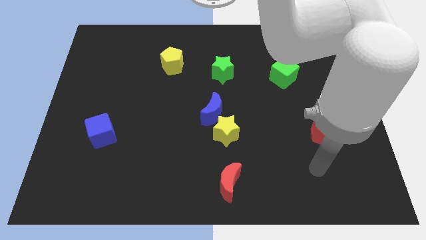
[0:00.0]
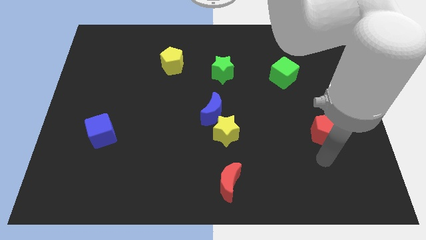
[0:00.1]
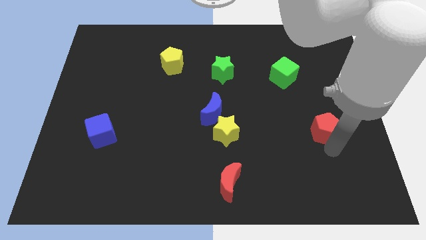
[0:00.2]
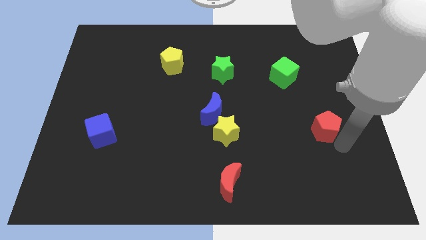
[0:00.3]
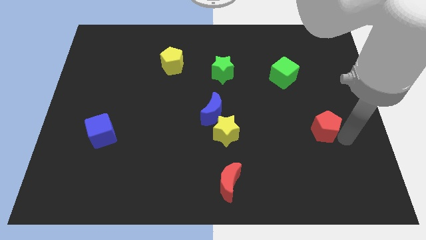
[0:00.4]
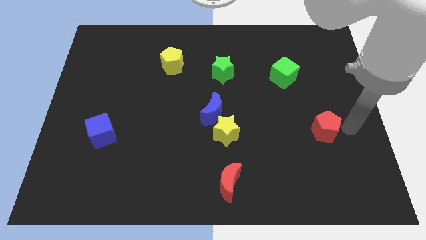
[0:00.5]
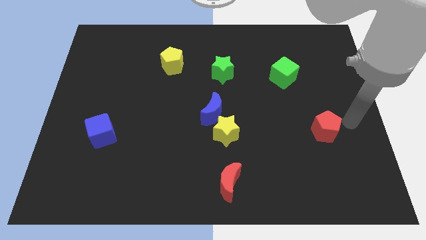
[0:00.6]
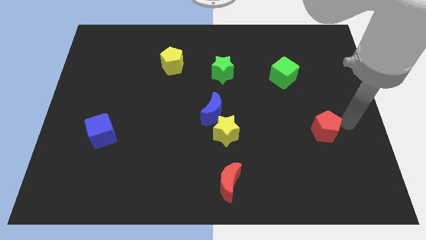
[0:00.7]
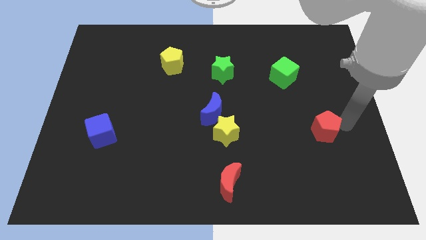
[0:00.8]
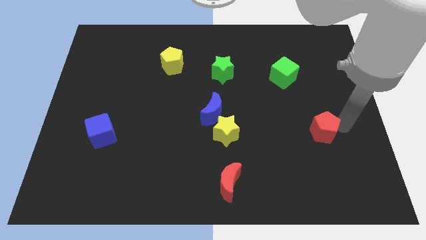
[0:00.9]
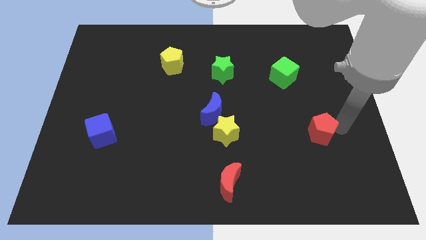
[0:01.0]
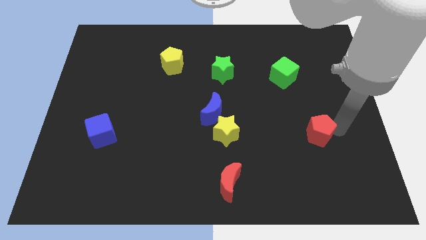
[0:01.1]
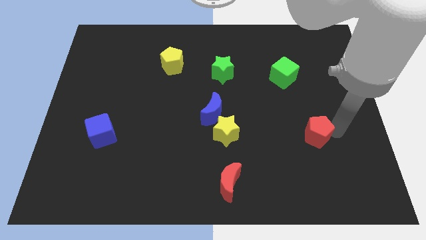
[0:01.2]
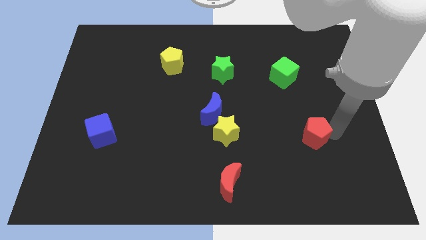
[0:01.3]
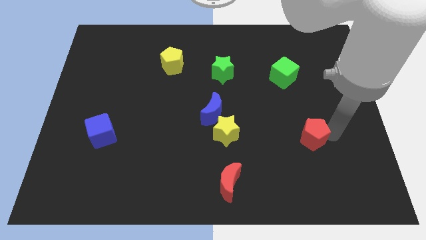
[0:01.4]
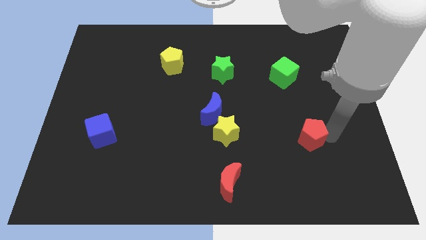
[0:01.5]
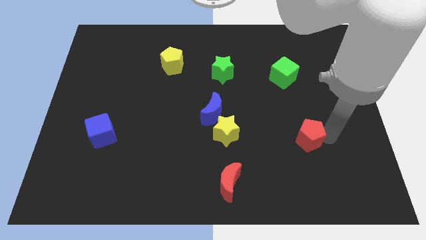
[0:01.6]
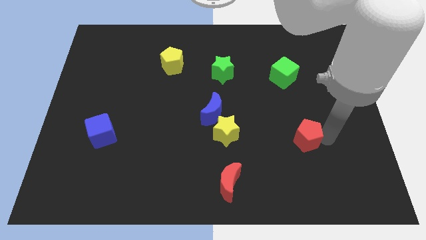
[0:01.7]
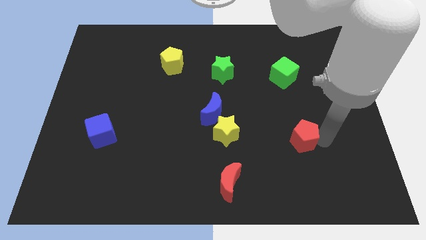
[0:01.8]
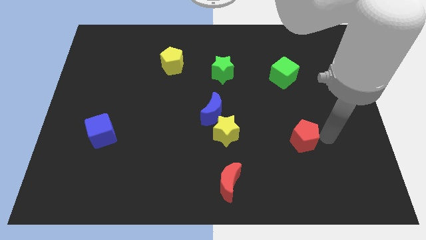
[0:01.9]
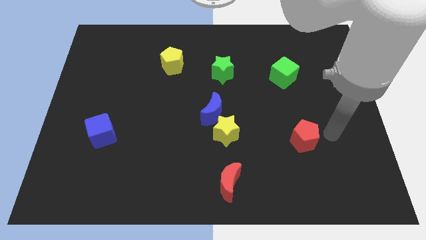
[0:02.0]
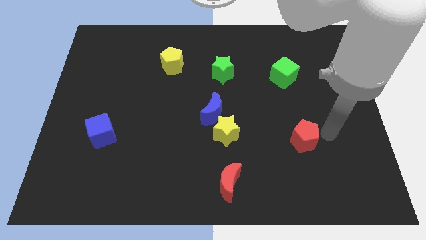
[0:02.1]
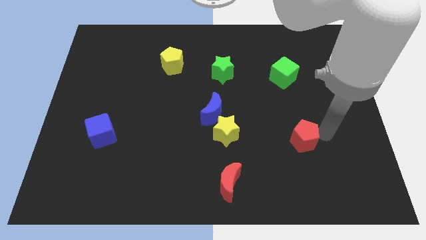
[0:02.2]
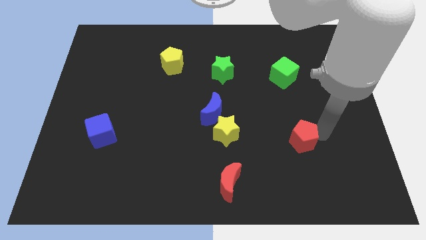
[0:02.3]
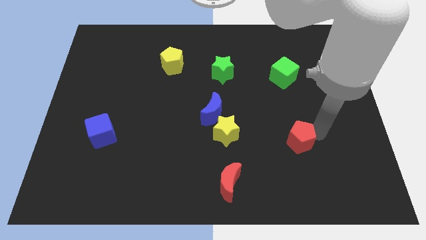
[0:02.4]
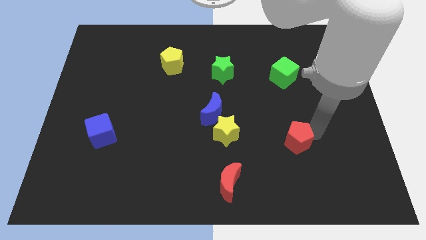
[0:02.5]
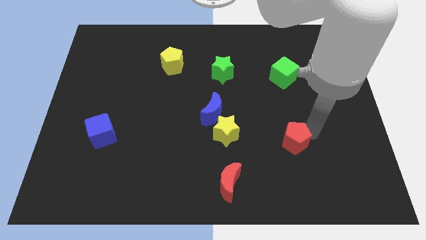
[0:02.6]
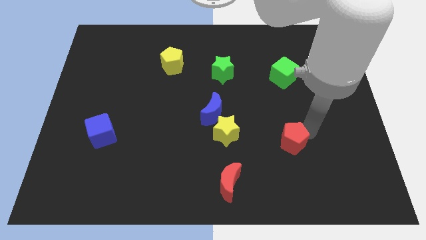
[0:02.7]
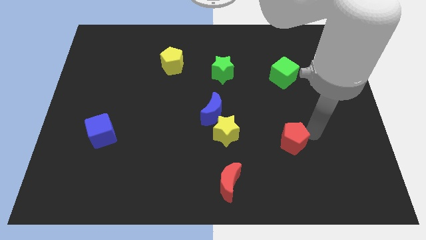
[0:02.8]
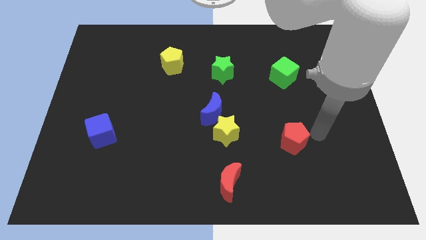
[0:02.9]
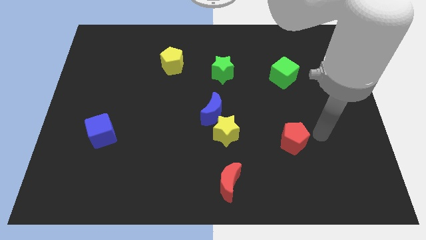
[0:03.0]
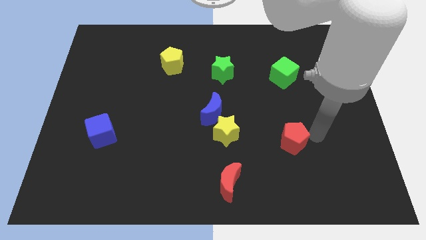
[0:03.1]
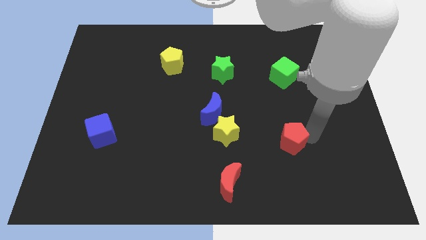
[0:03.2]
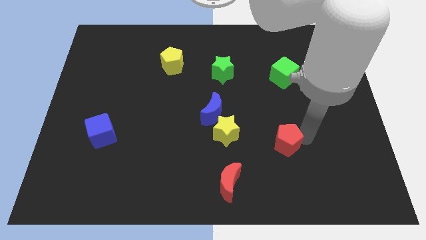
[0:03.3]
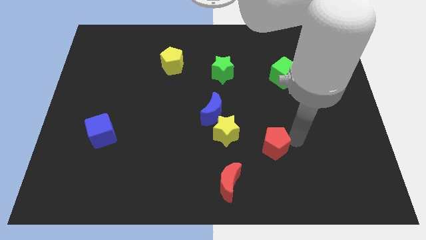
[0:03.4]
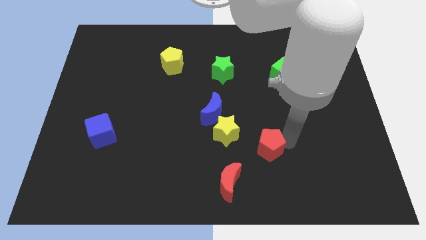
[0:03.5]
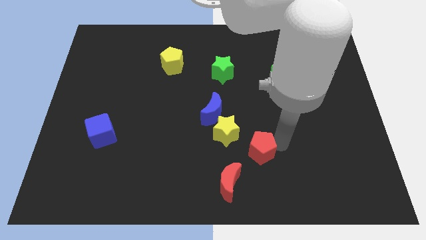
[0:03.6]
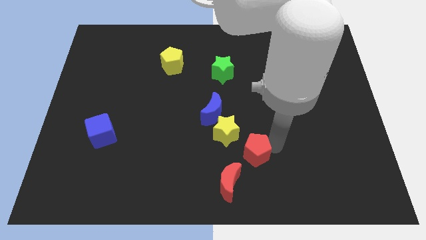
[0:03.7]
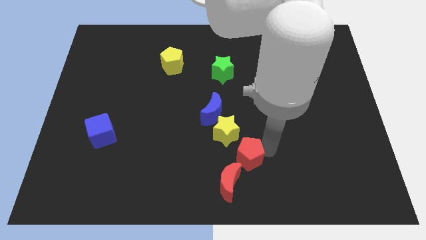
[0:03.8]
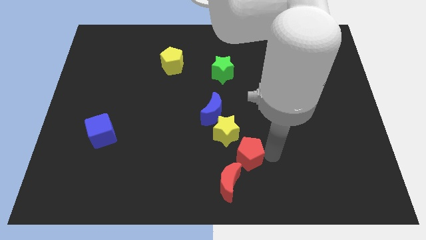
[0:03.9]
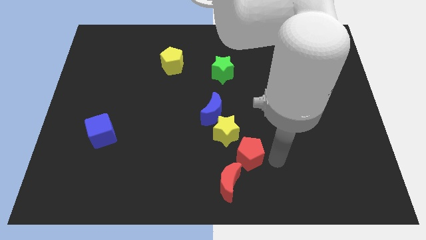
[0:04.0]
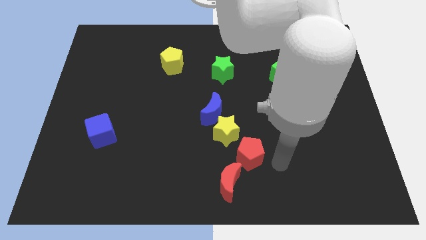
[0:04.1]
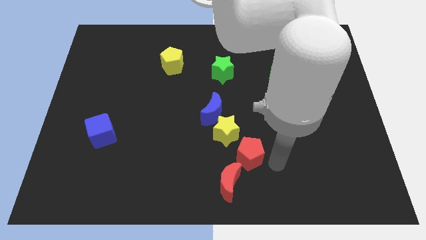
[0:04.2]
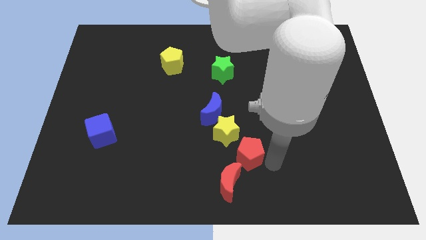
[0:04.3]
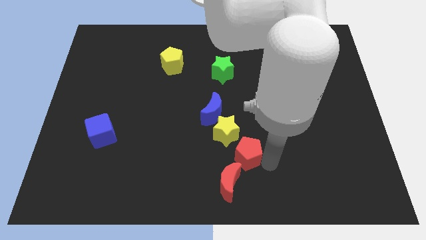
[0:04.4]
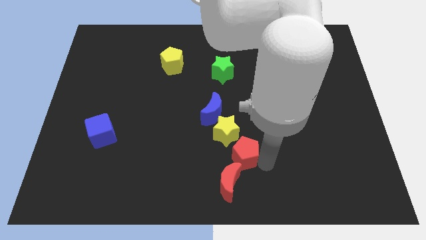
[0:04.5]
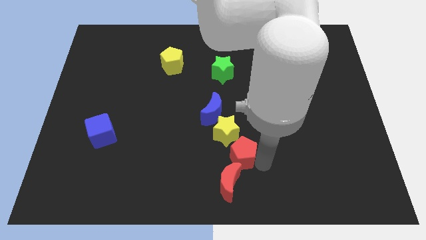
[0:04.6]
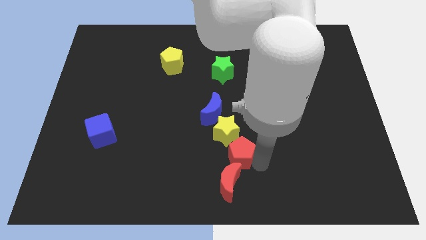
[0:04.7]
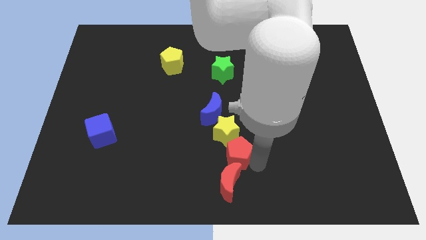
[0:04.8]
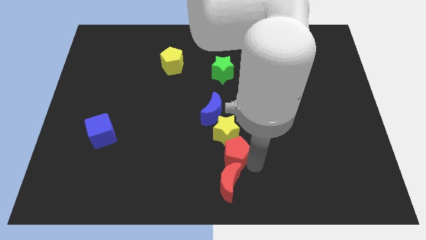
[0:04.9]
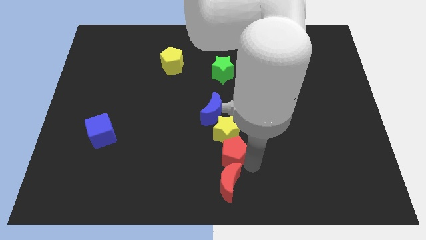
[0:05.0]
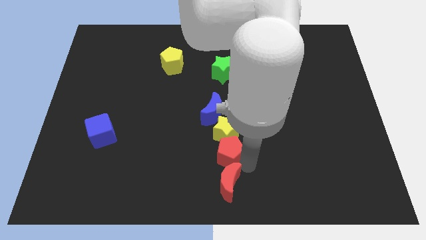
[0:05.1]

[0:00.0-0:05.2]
move the red pentagon to the left

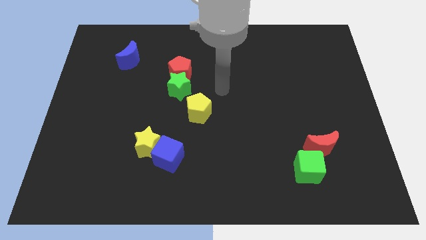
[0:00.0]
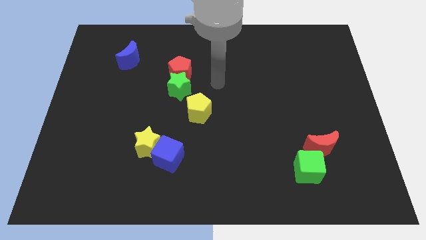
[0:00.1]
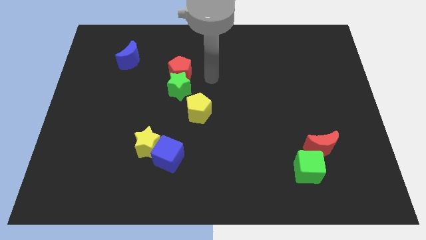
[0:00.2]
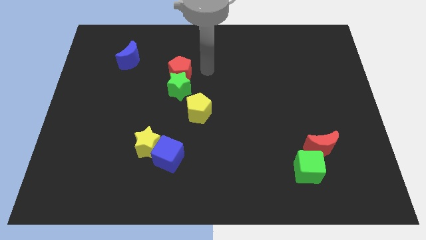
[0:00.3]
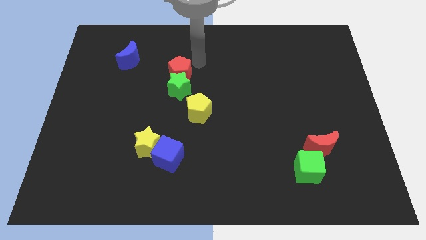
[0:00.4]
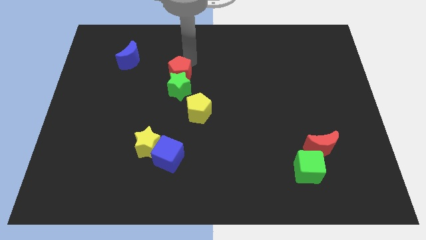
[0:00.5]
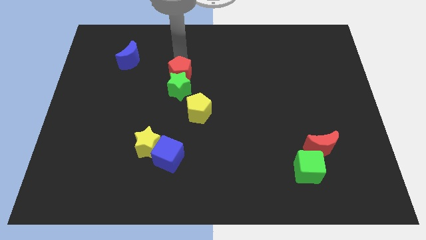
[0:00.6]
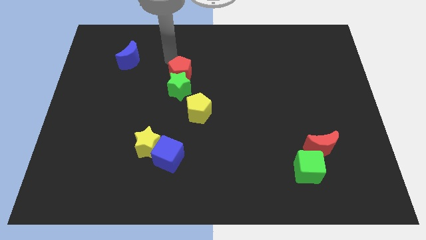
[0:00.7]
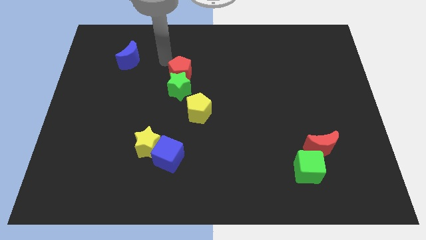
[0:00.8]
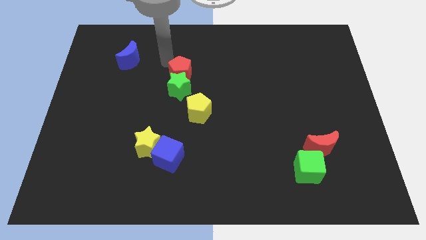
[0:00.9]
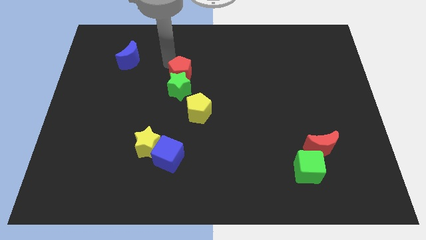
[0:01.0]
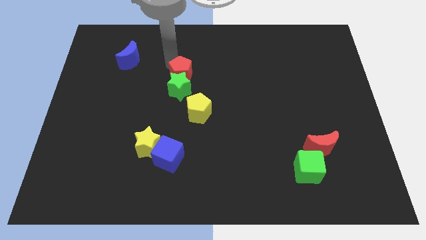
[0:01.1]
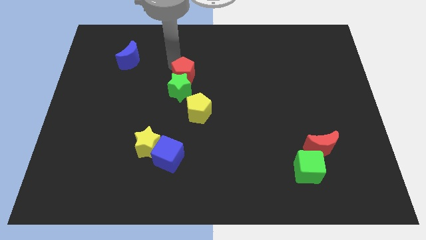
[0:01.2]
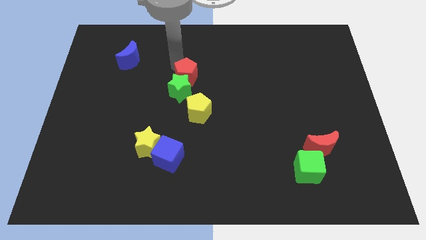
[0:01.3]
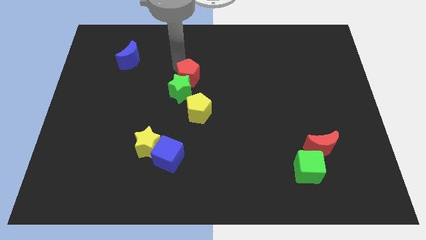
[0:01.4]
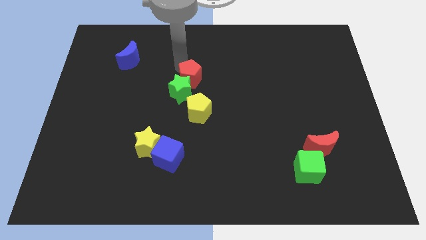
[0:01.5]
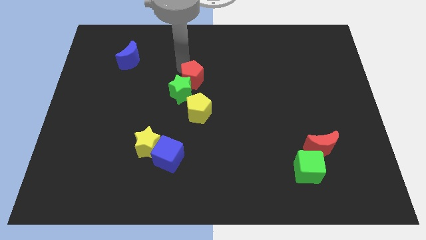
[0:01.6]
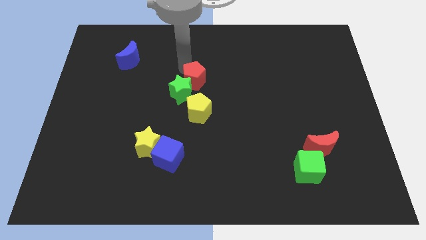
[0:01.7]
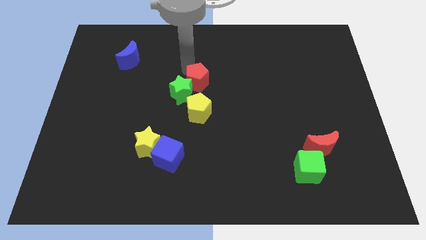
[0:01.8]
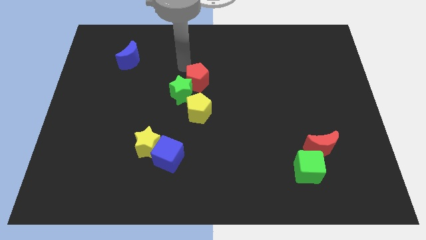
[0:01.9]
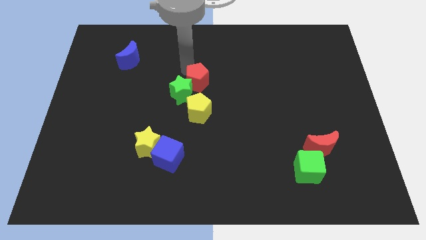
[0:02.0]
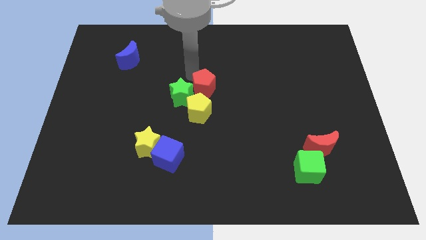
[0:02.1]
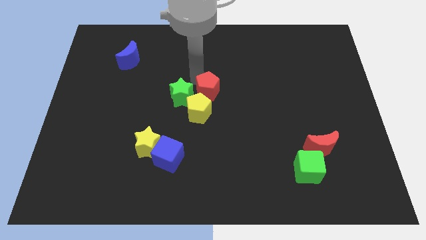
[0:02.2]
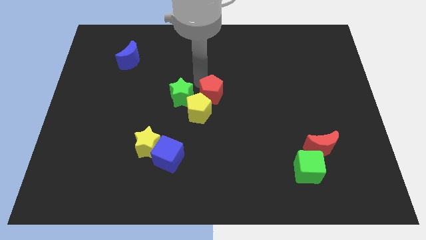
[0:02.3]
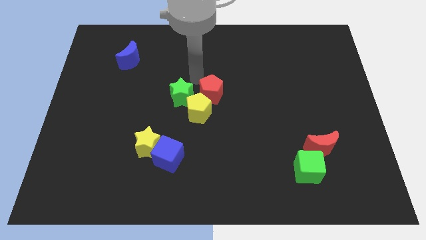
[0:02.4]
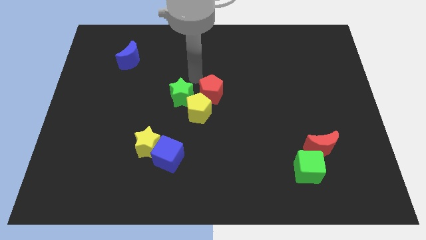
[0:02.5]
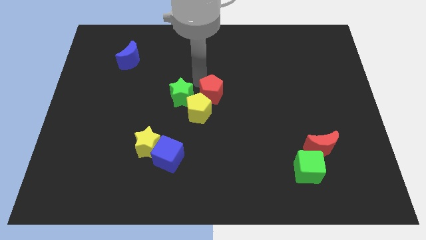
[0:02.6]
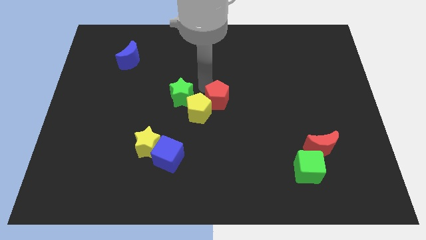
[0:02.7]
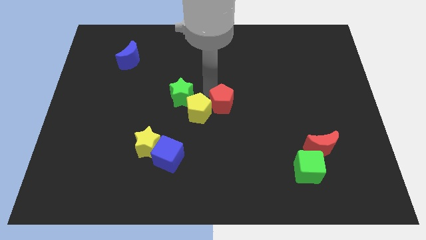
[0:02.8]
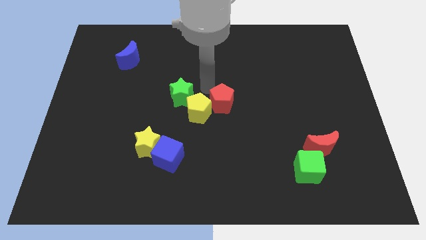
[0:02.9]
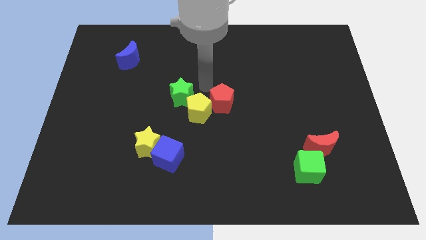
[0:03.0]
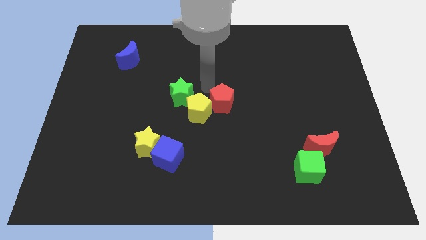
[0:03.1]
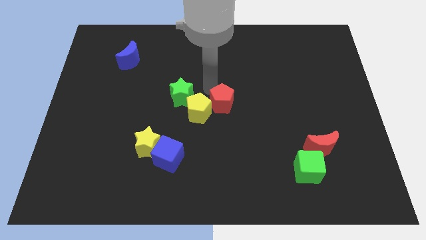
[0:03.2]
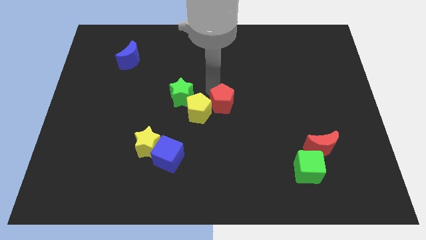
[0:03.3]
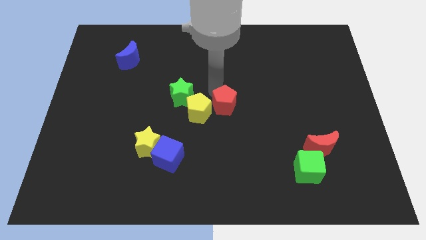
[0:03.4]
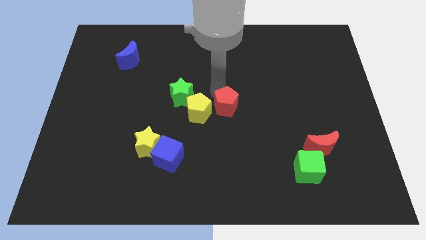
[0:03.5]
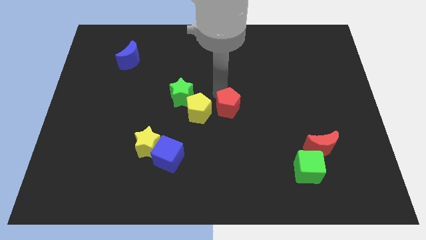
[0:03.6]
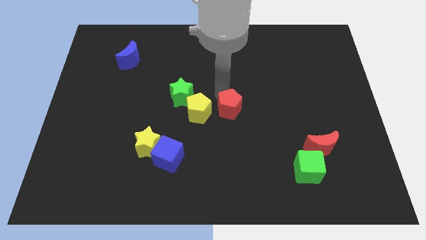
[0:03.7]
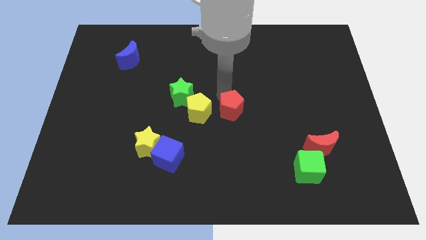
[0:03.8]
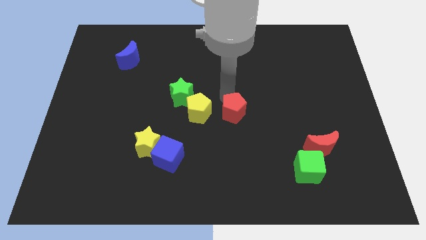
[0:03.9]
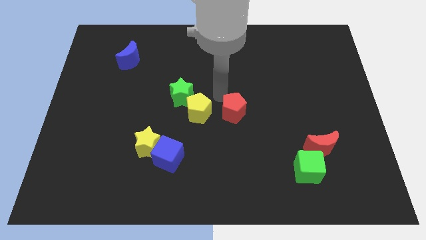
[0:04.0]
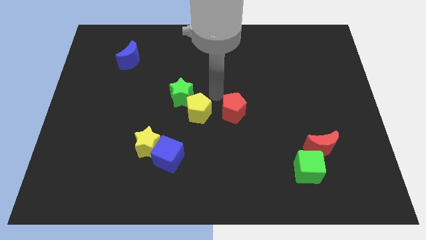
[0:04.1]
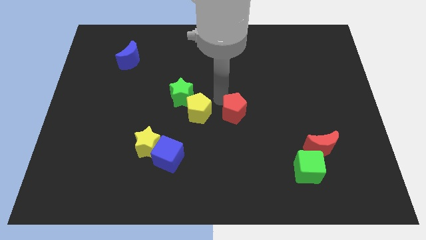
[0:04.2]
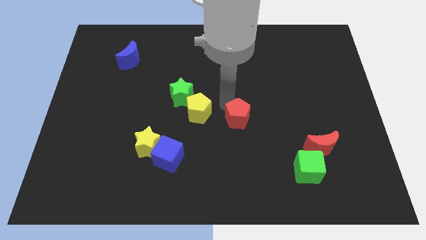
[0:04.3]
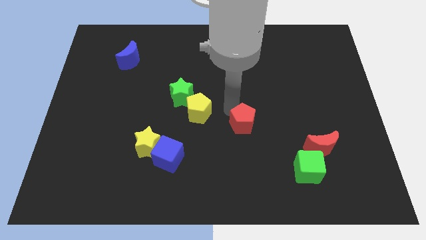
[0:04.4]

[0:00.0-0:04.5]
move the red pentagon downwards and right
